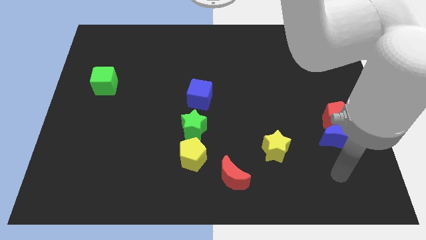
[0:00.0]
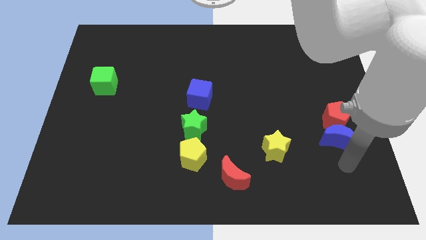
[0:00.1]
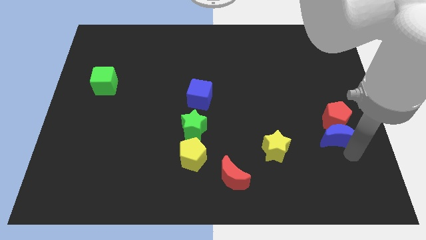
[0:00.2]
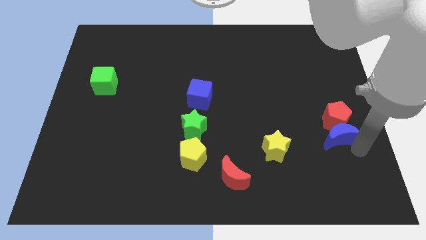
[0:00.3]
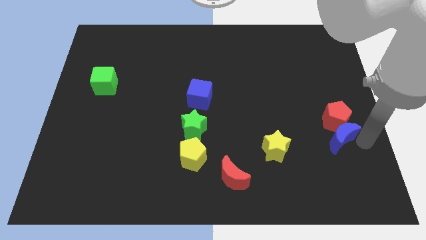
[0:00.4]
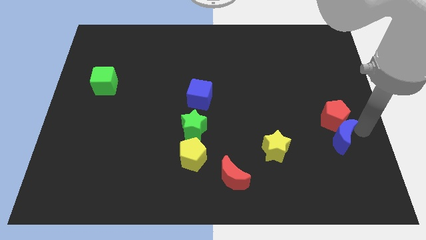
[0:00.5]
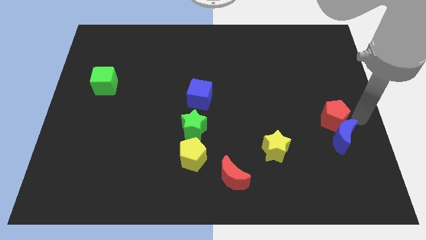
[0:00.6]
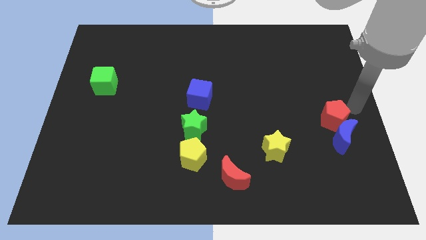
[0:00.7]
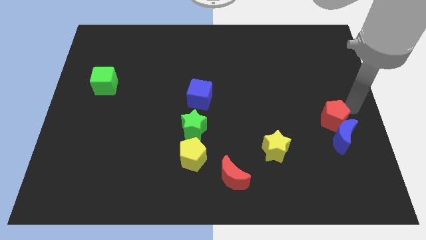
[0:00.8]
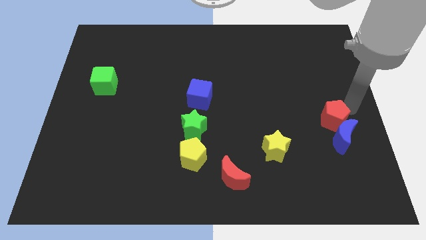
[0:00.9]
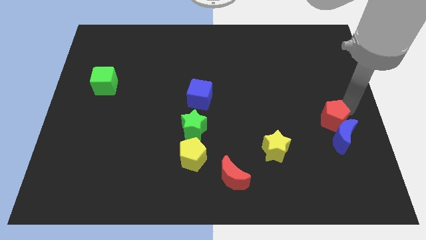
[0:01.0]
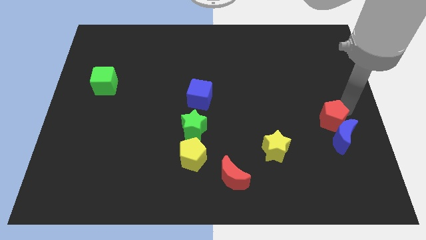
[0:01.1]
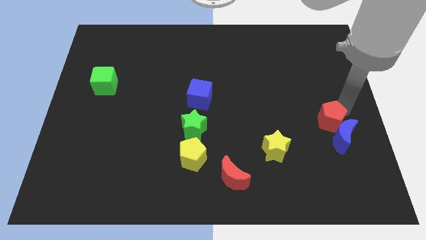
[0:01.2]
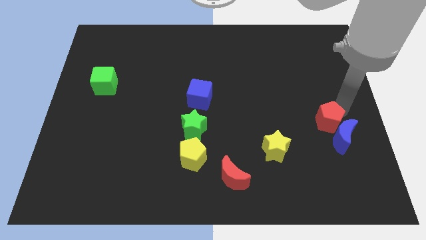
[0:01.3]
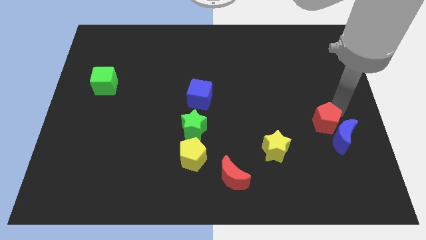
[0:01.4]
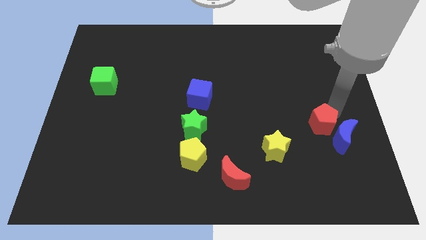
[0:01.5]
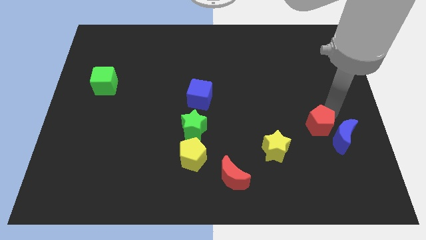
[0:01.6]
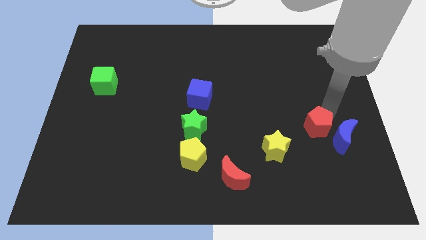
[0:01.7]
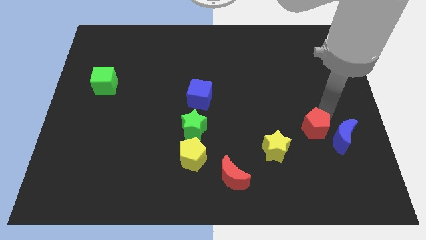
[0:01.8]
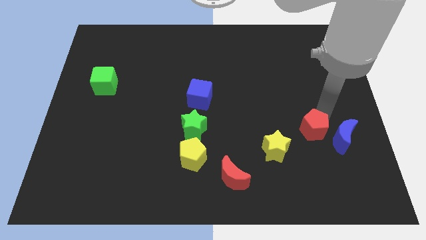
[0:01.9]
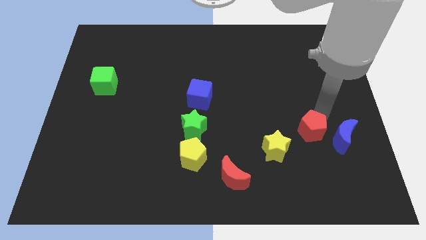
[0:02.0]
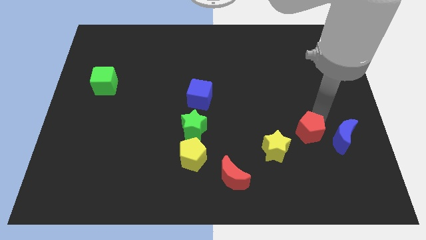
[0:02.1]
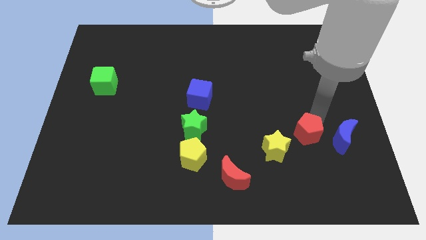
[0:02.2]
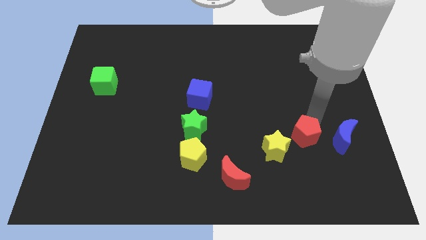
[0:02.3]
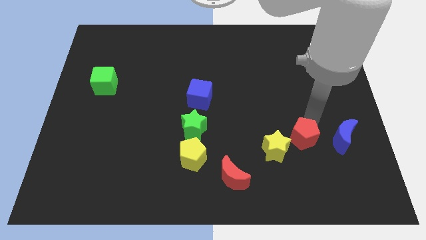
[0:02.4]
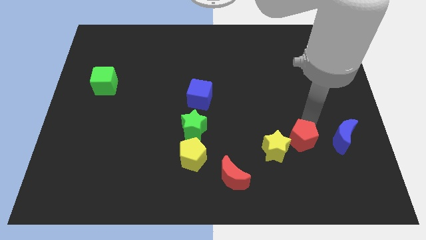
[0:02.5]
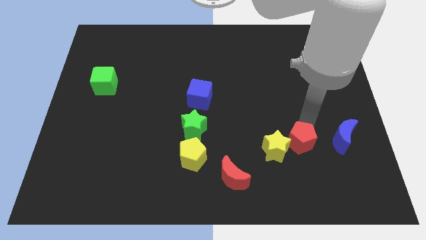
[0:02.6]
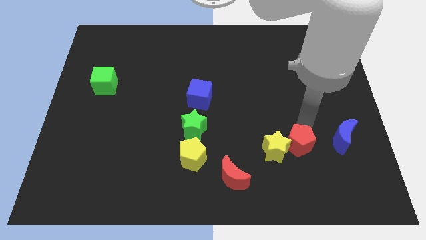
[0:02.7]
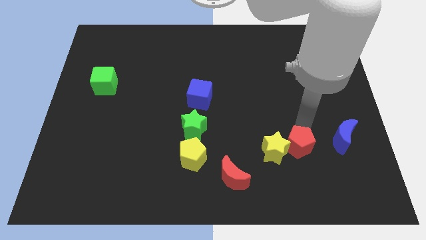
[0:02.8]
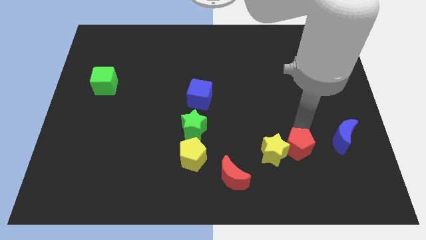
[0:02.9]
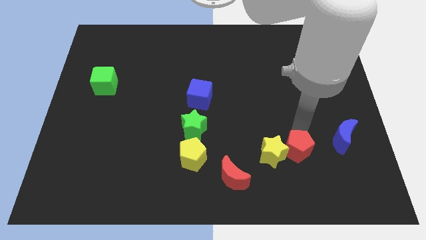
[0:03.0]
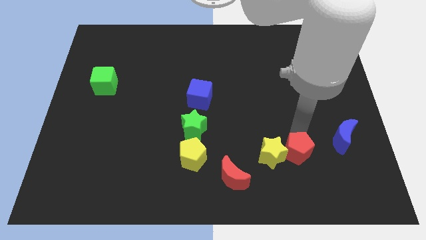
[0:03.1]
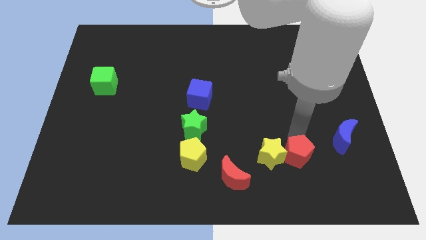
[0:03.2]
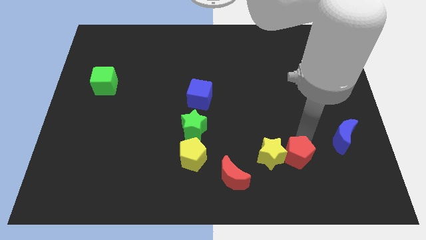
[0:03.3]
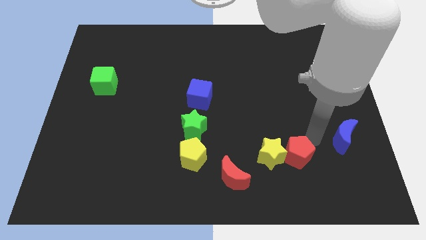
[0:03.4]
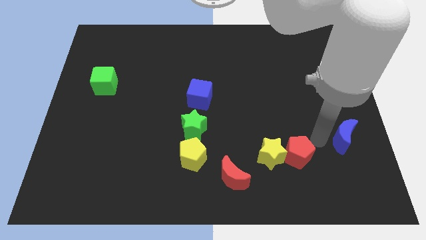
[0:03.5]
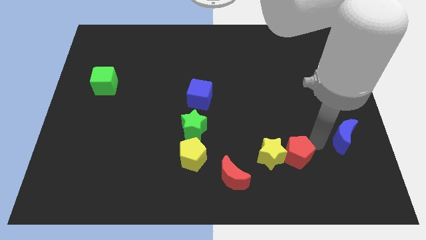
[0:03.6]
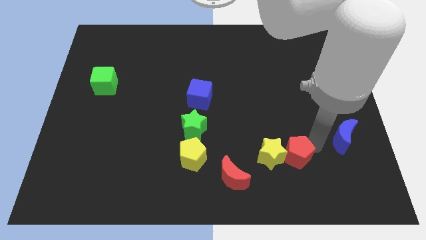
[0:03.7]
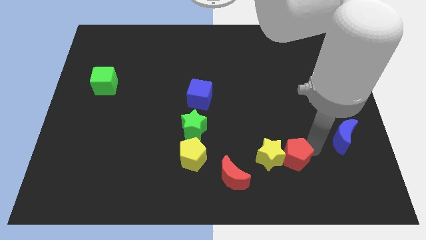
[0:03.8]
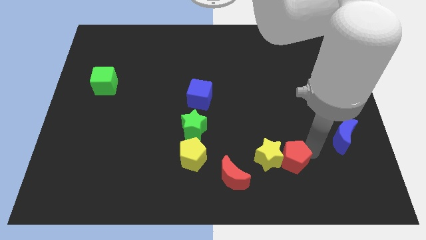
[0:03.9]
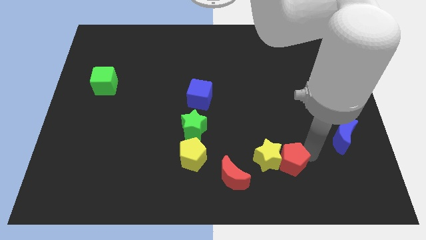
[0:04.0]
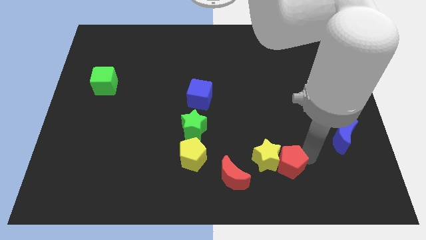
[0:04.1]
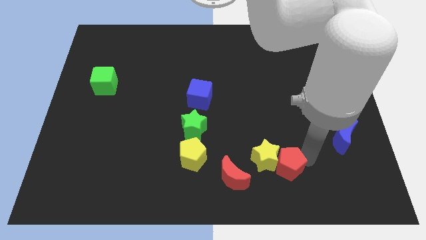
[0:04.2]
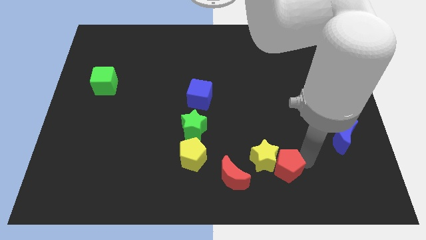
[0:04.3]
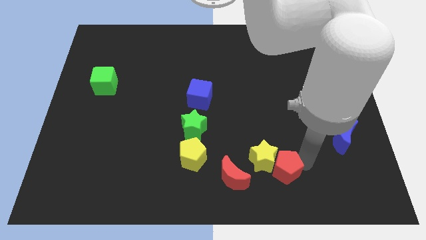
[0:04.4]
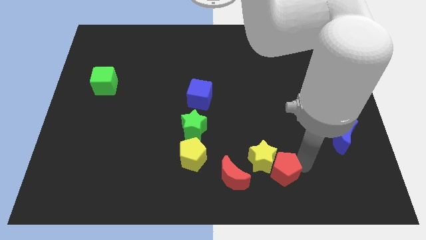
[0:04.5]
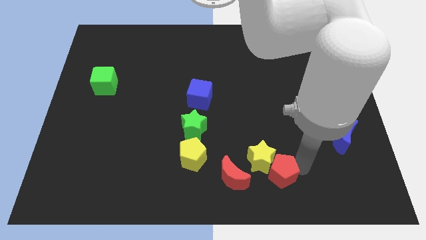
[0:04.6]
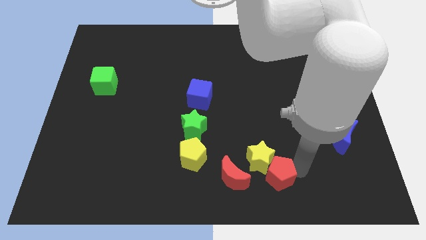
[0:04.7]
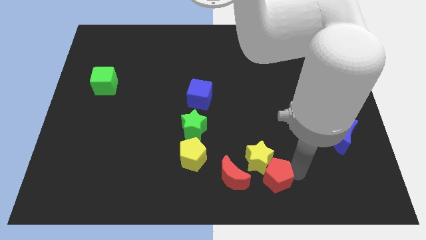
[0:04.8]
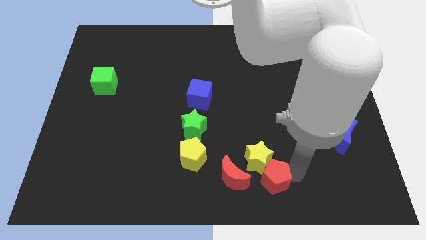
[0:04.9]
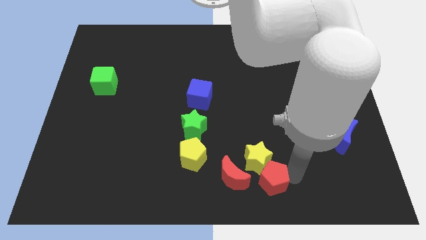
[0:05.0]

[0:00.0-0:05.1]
slide the red pentagon to the bottom side

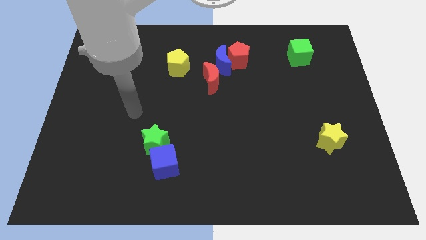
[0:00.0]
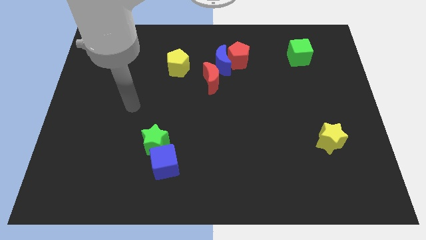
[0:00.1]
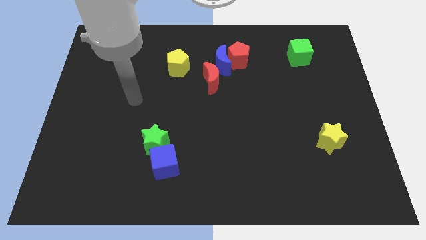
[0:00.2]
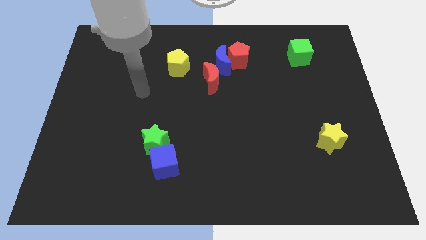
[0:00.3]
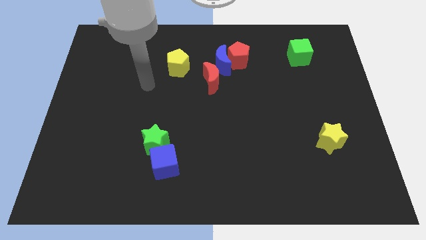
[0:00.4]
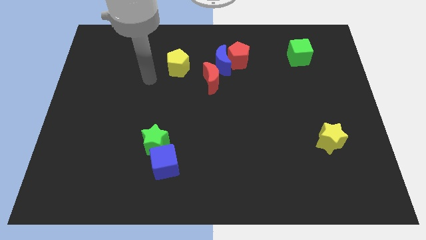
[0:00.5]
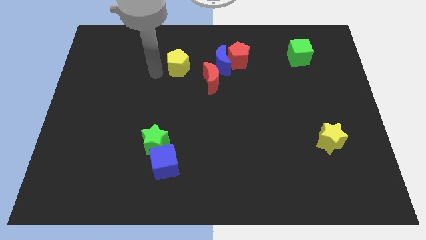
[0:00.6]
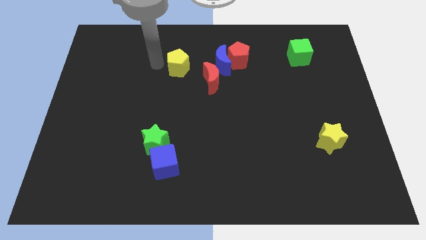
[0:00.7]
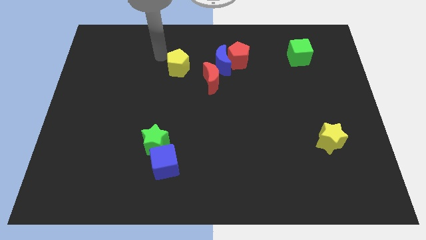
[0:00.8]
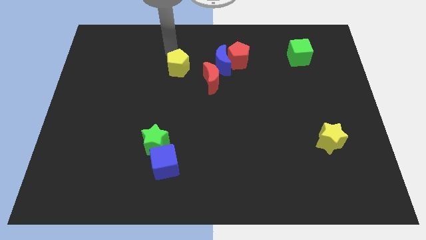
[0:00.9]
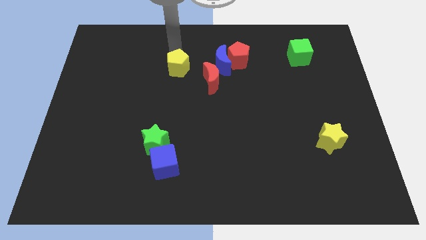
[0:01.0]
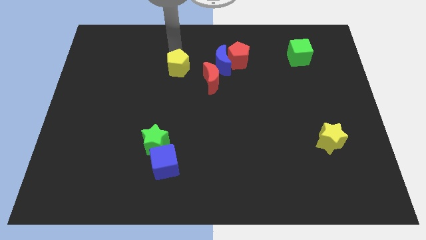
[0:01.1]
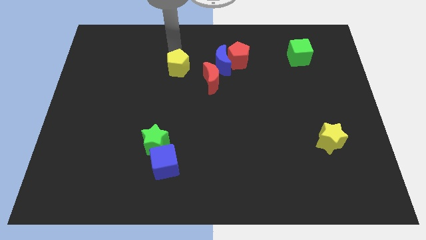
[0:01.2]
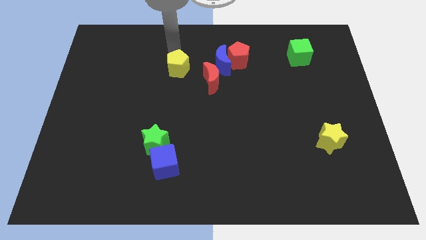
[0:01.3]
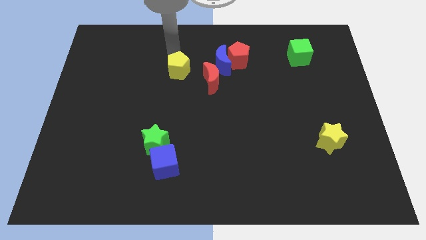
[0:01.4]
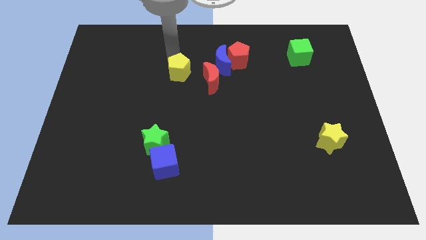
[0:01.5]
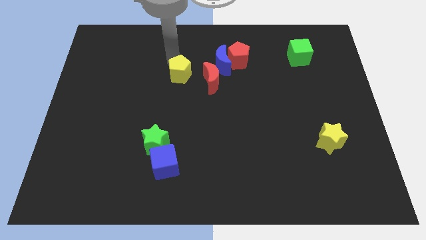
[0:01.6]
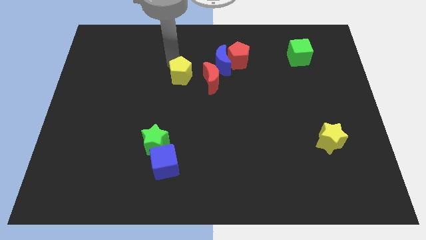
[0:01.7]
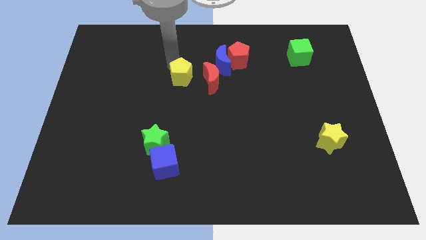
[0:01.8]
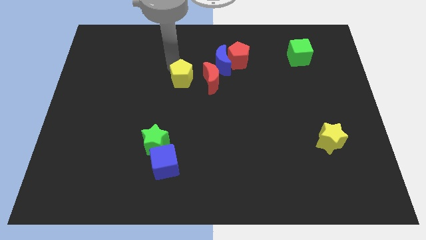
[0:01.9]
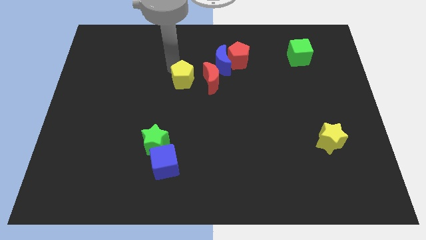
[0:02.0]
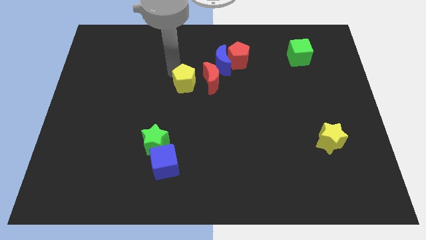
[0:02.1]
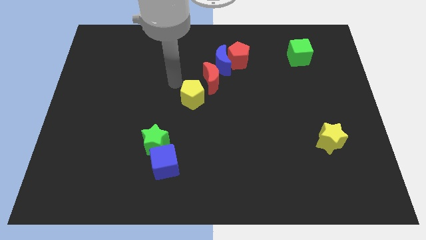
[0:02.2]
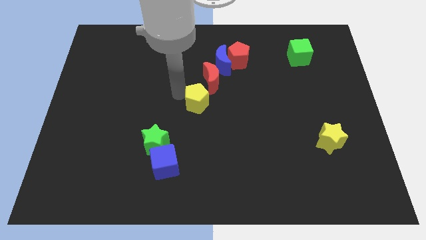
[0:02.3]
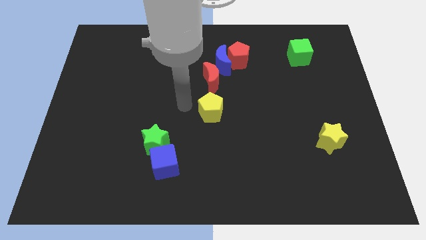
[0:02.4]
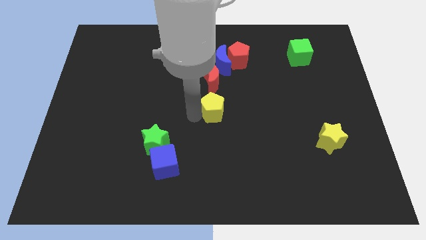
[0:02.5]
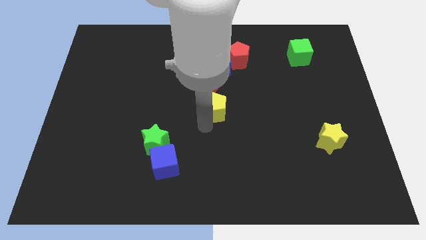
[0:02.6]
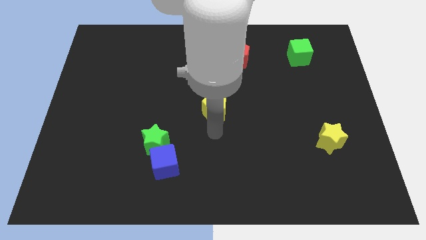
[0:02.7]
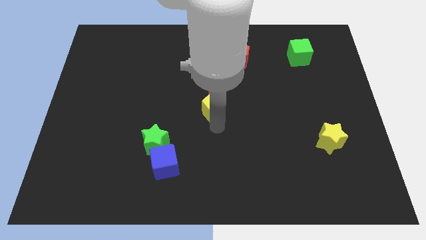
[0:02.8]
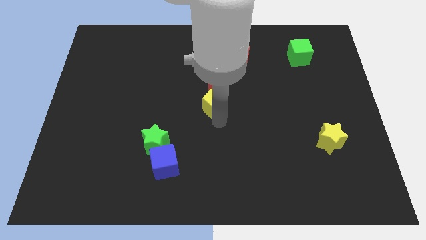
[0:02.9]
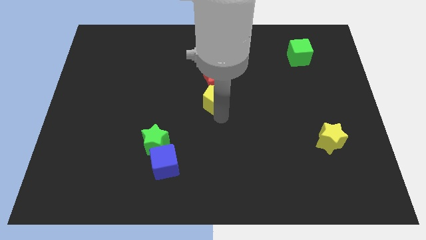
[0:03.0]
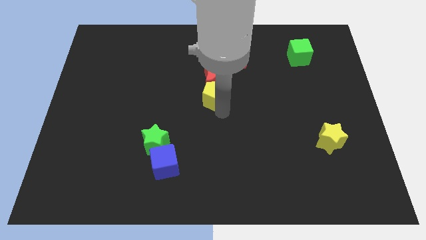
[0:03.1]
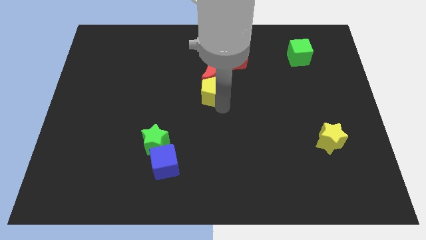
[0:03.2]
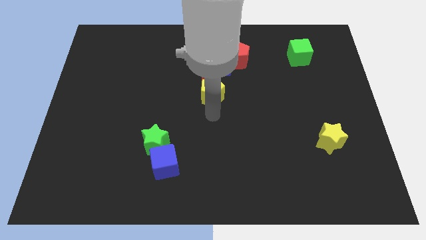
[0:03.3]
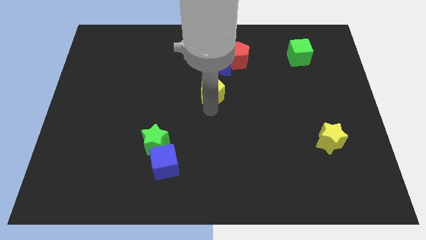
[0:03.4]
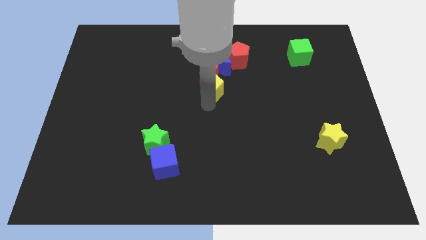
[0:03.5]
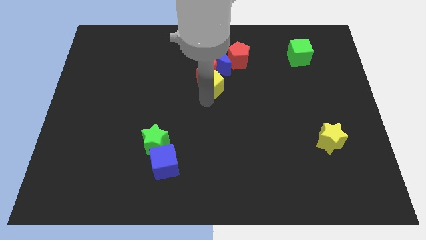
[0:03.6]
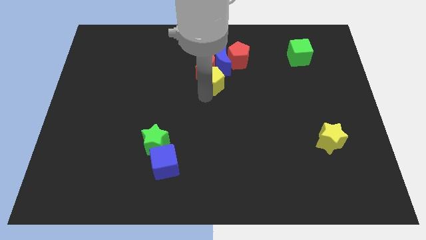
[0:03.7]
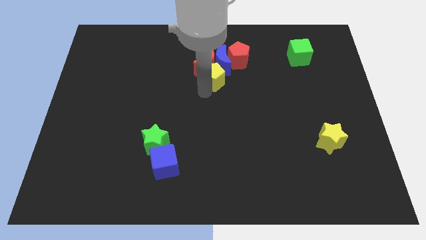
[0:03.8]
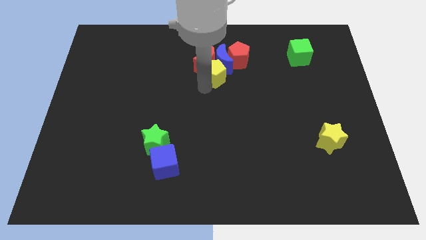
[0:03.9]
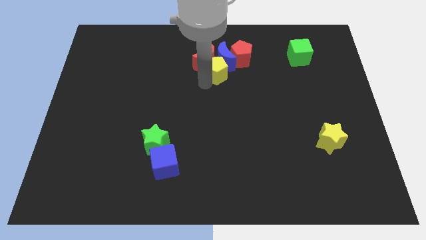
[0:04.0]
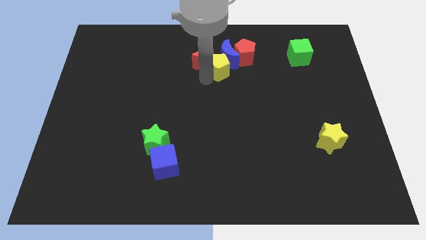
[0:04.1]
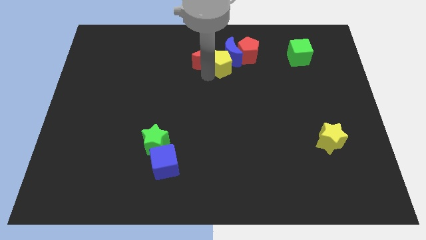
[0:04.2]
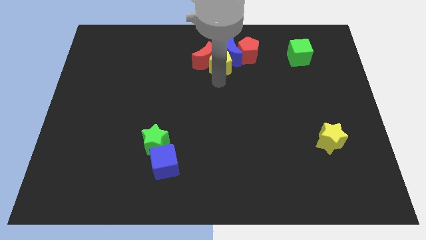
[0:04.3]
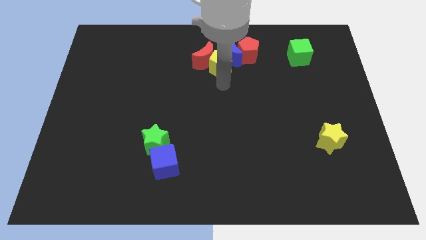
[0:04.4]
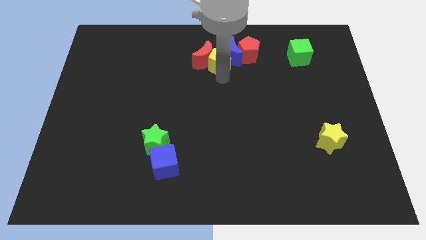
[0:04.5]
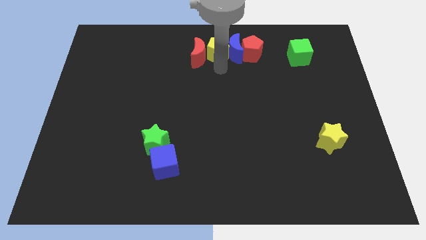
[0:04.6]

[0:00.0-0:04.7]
slide the yellow pentagon to the top
